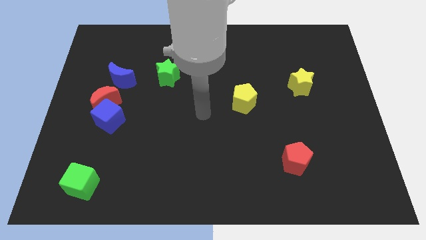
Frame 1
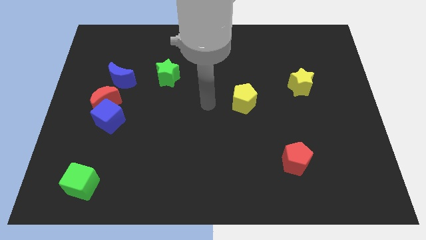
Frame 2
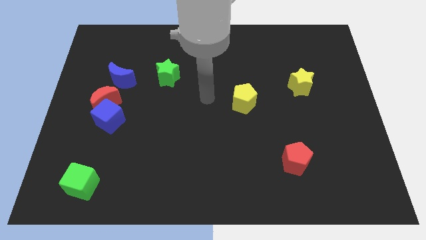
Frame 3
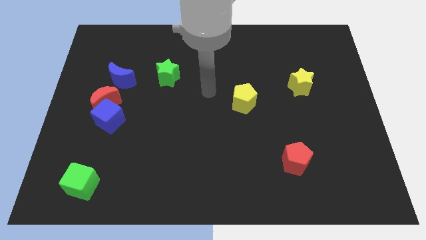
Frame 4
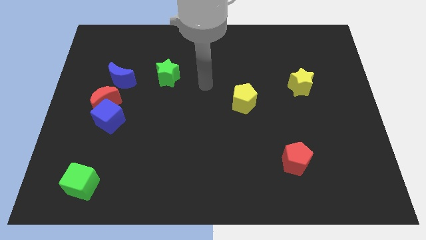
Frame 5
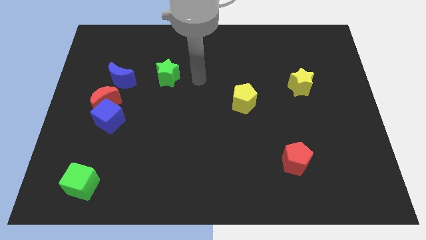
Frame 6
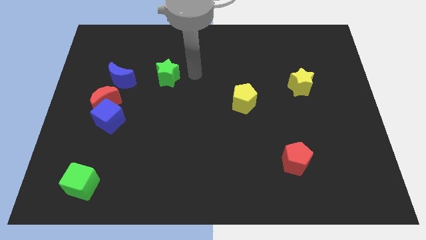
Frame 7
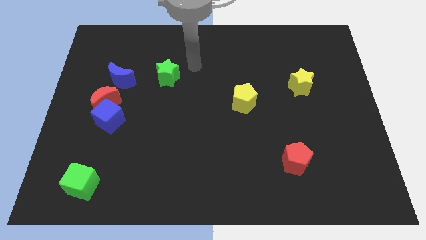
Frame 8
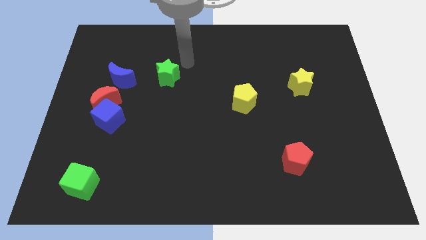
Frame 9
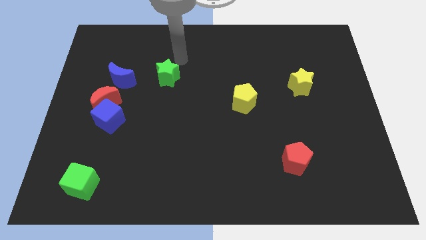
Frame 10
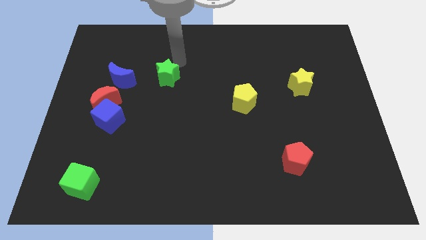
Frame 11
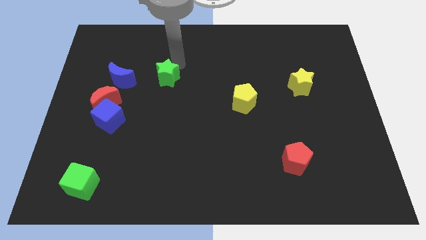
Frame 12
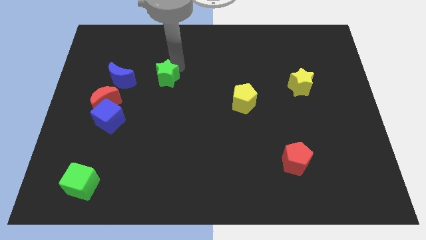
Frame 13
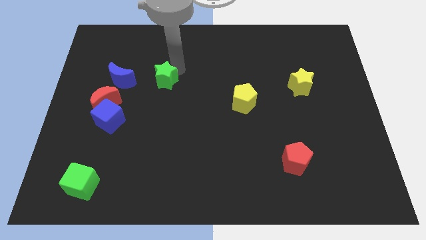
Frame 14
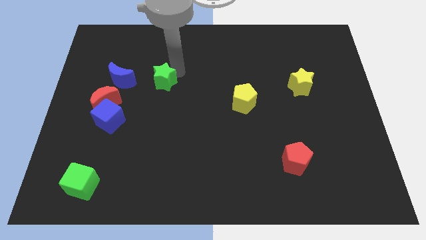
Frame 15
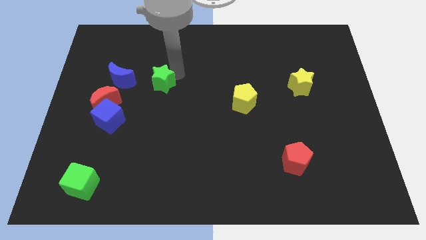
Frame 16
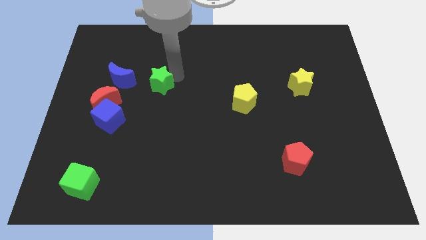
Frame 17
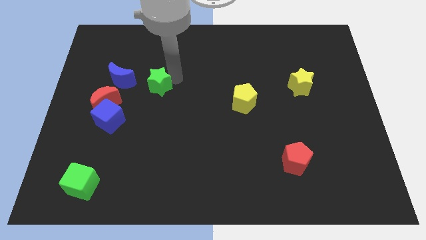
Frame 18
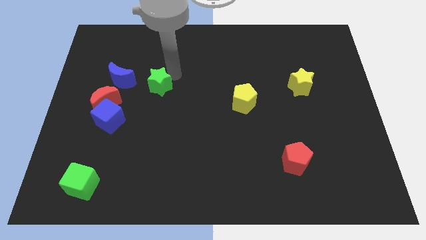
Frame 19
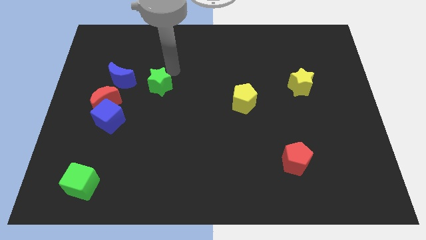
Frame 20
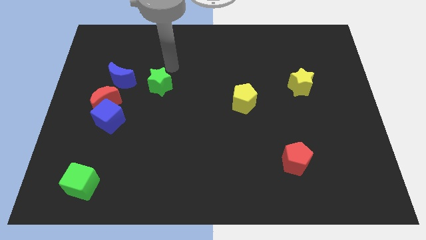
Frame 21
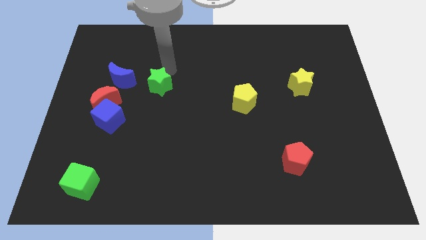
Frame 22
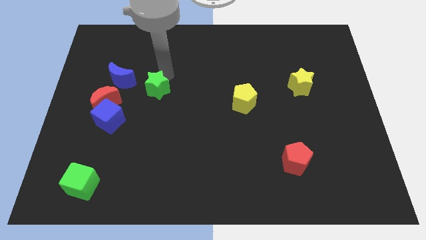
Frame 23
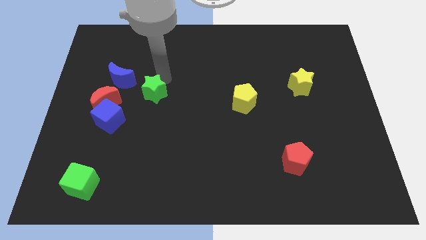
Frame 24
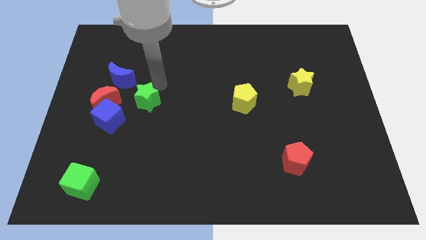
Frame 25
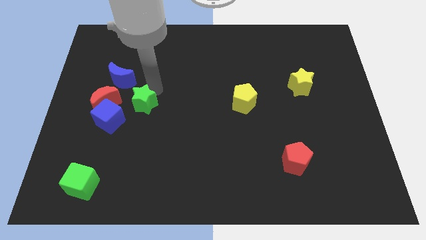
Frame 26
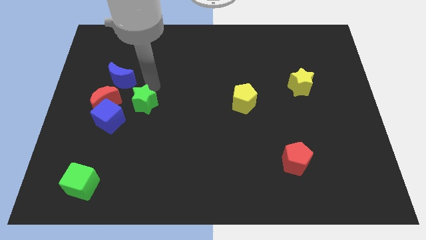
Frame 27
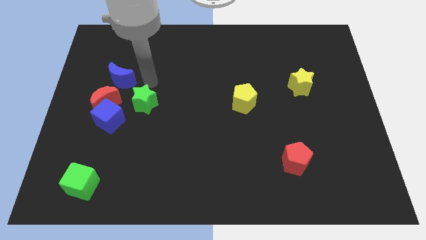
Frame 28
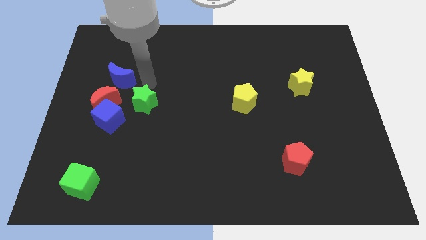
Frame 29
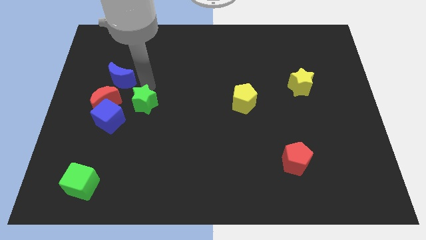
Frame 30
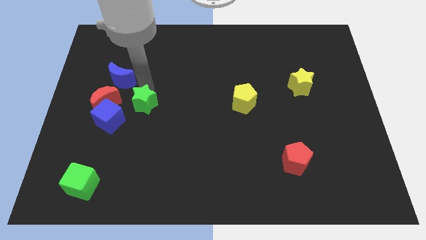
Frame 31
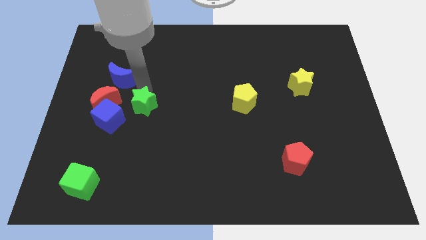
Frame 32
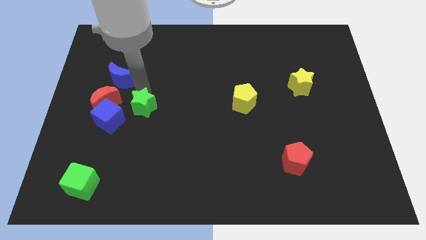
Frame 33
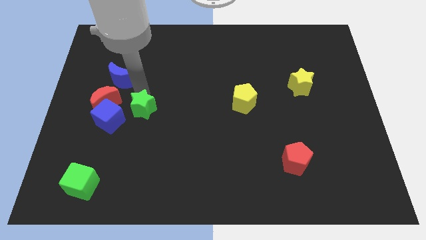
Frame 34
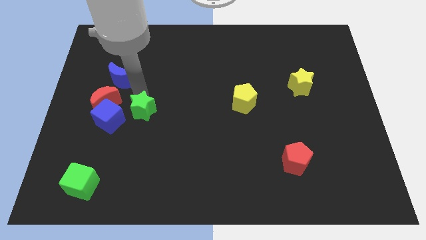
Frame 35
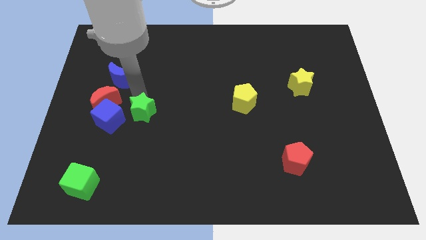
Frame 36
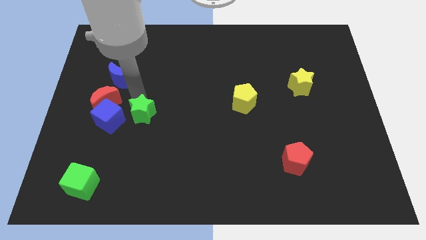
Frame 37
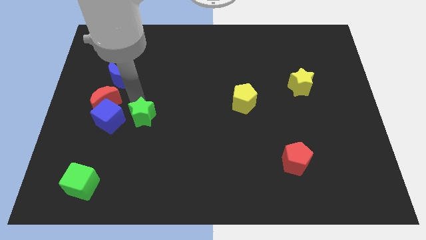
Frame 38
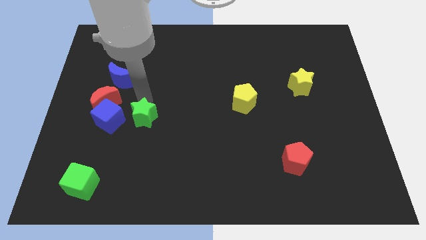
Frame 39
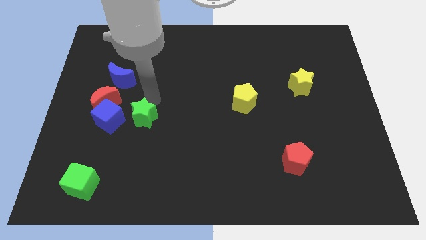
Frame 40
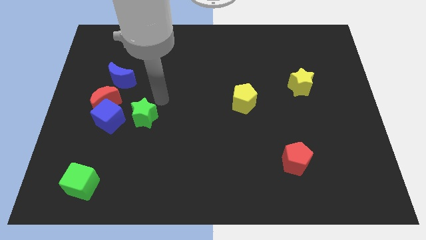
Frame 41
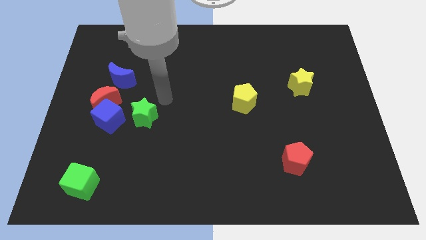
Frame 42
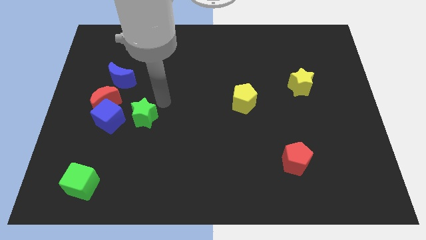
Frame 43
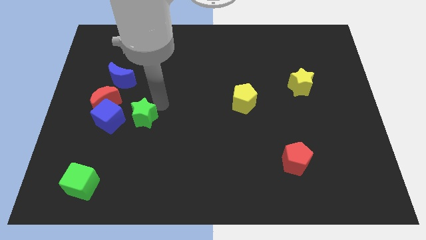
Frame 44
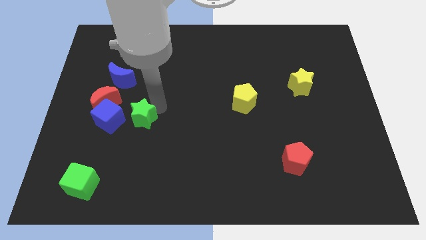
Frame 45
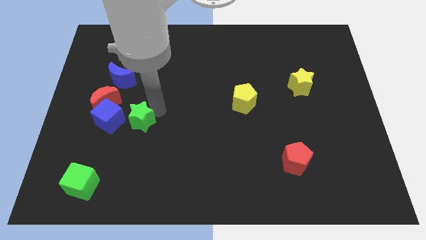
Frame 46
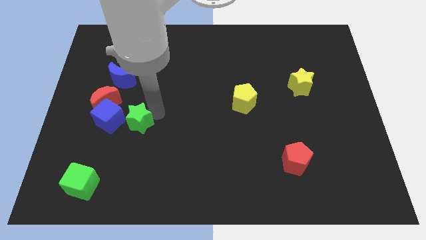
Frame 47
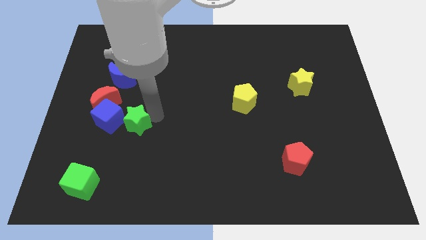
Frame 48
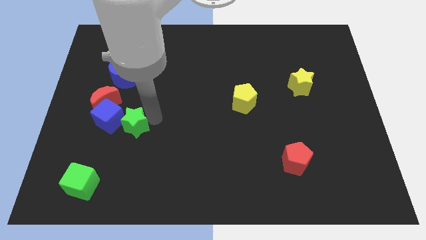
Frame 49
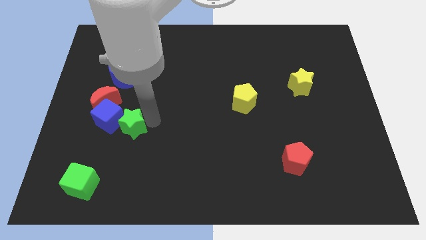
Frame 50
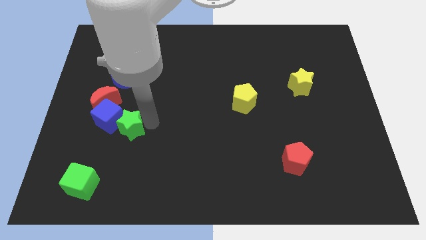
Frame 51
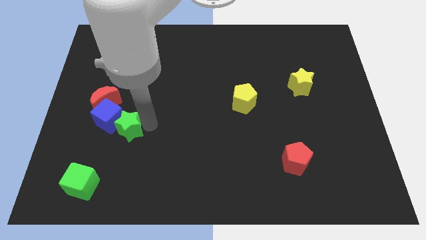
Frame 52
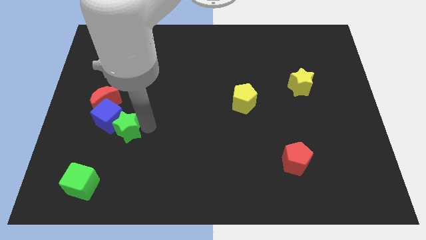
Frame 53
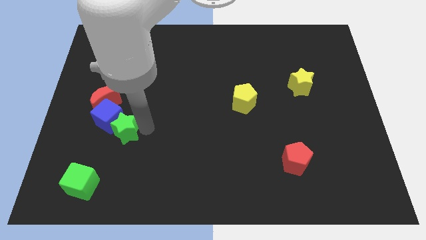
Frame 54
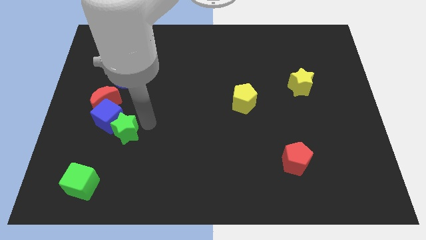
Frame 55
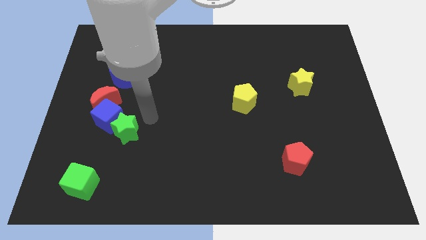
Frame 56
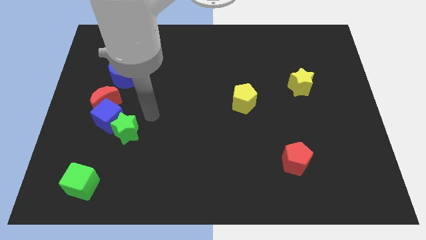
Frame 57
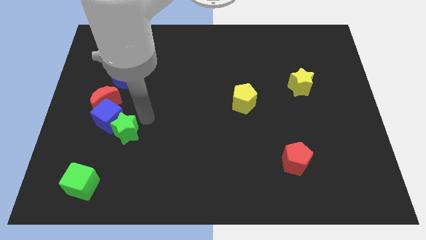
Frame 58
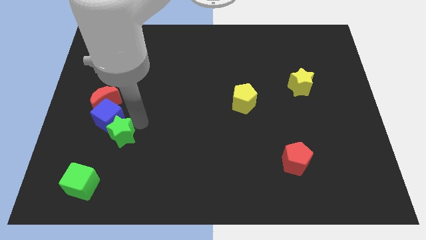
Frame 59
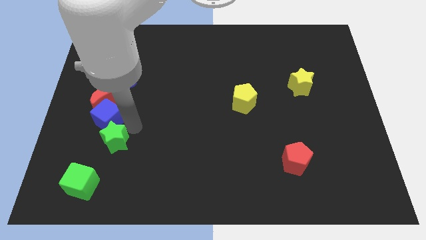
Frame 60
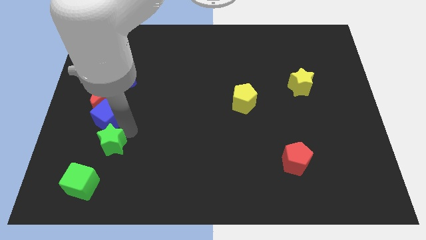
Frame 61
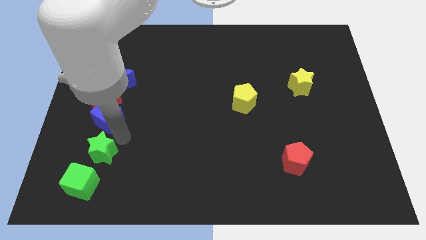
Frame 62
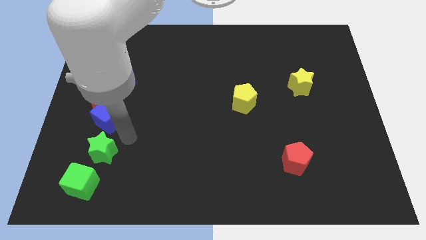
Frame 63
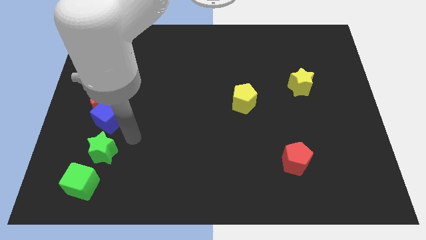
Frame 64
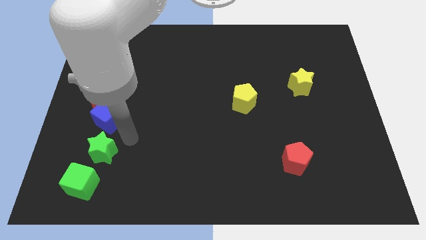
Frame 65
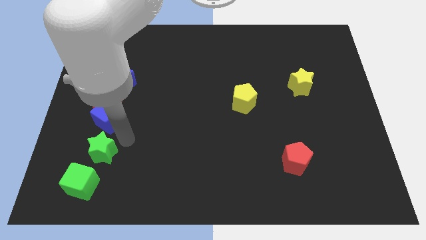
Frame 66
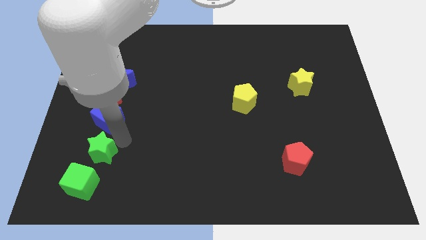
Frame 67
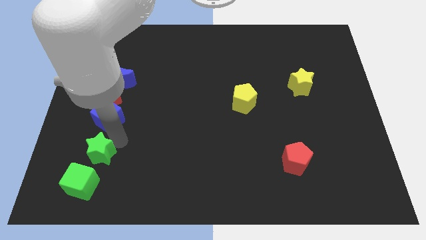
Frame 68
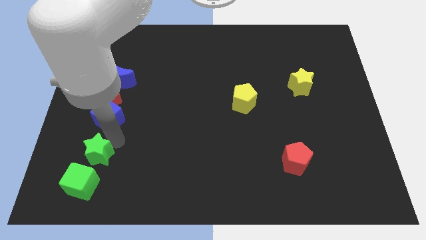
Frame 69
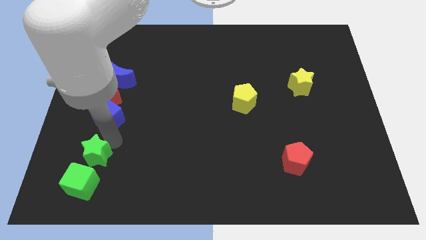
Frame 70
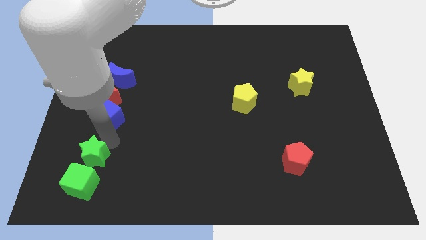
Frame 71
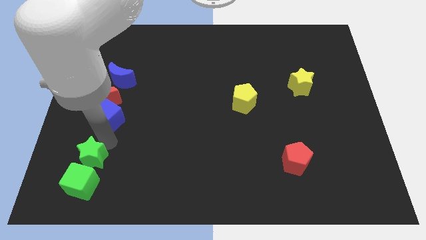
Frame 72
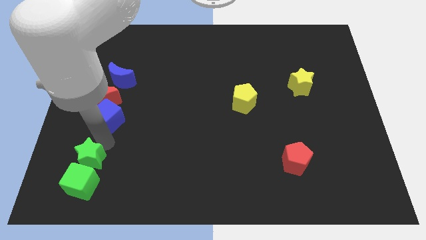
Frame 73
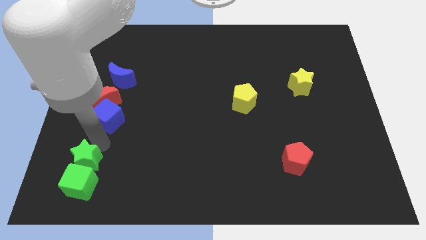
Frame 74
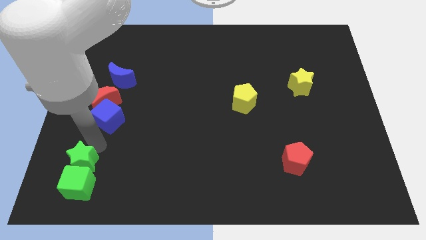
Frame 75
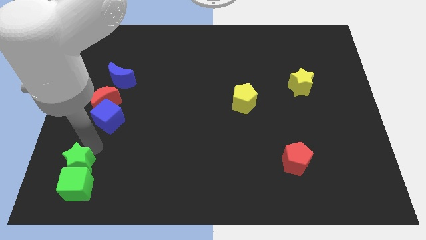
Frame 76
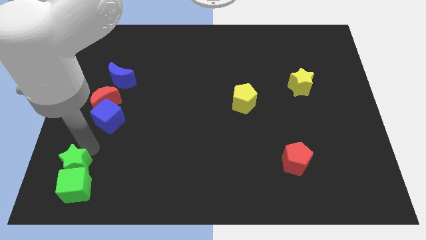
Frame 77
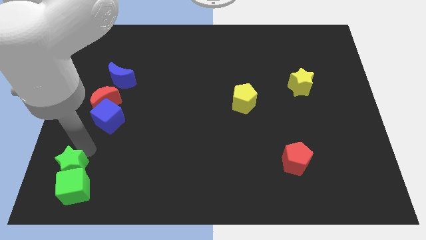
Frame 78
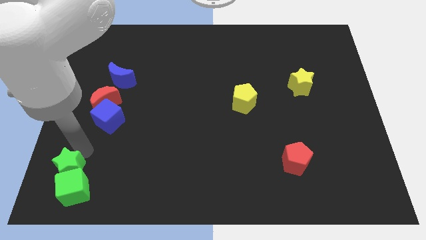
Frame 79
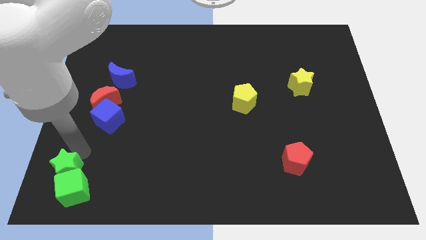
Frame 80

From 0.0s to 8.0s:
move the green star to the lower left corner
